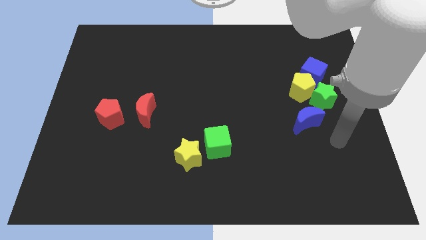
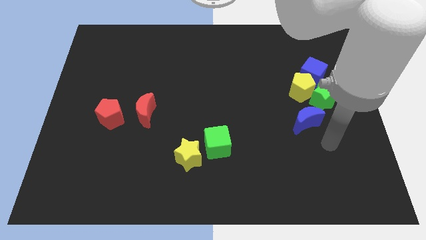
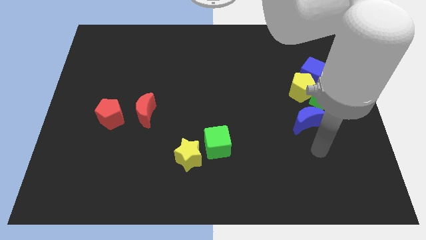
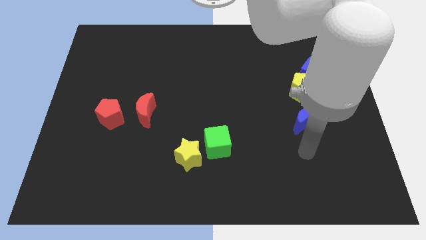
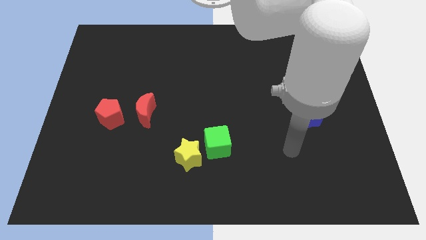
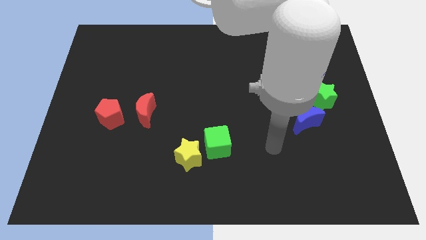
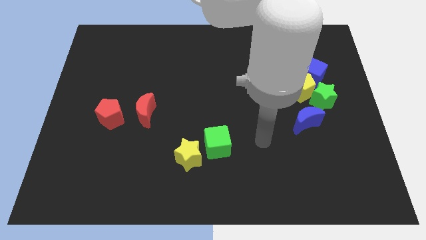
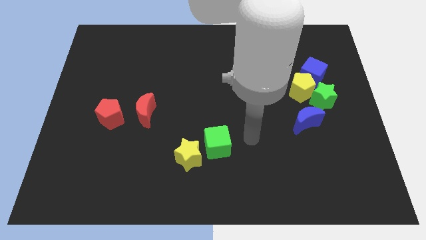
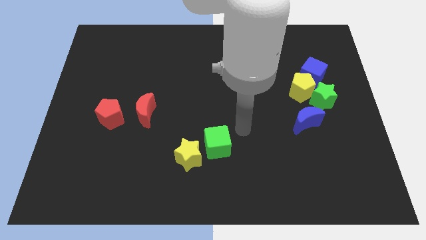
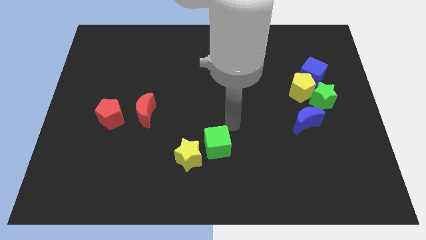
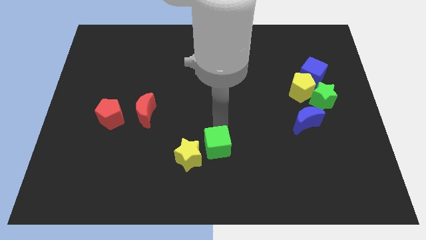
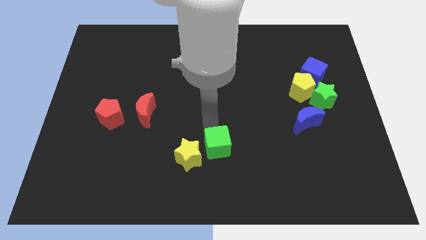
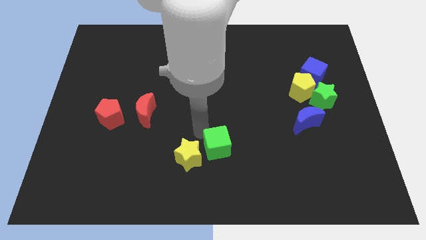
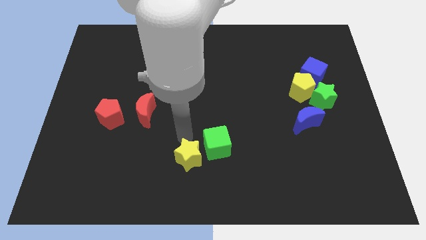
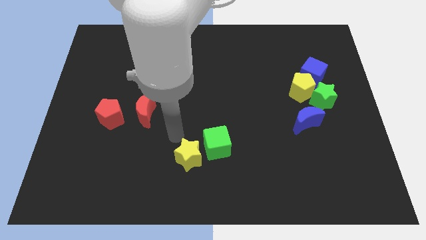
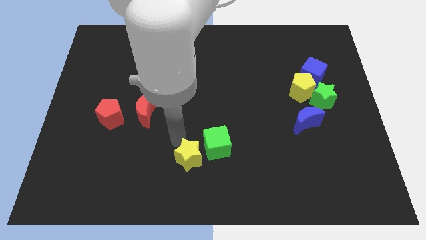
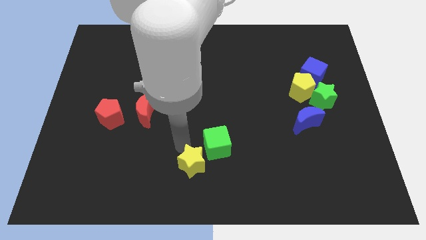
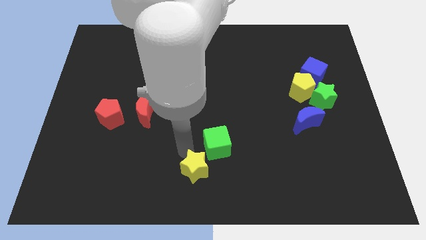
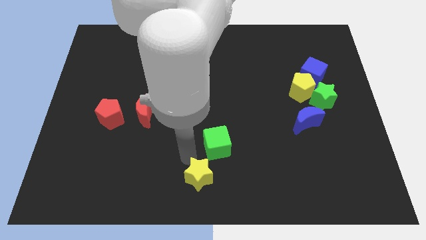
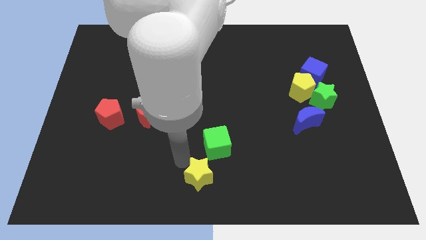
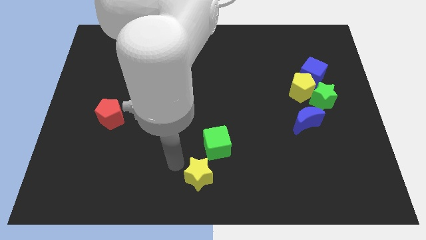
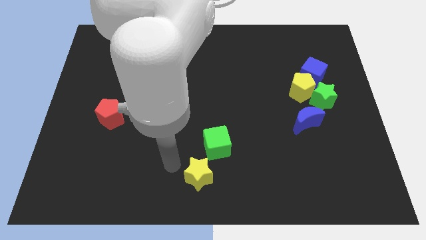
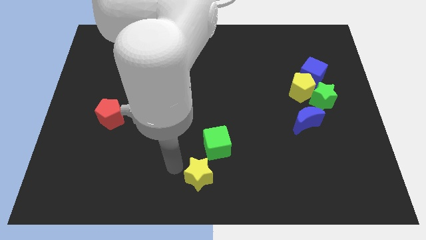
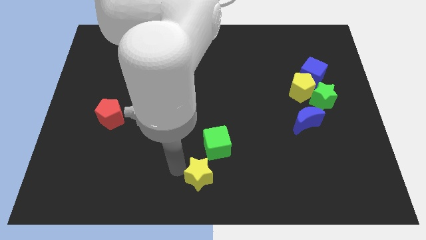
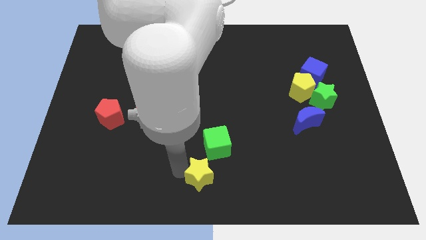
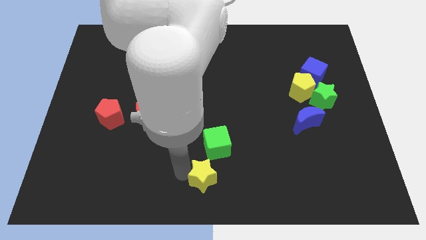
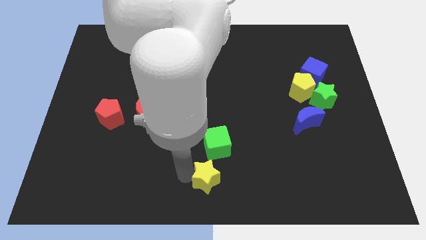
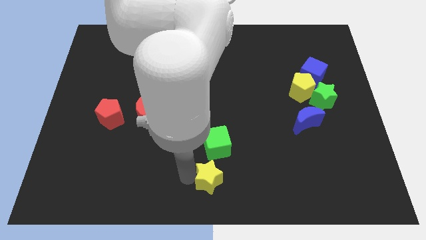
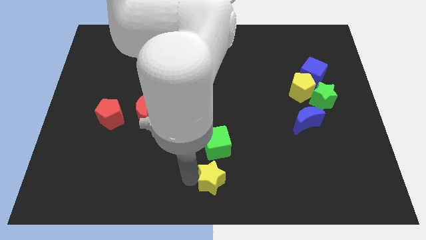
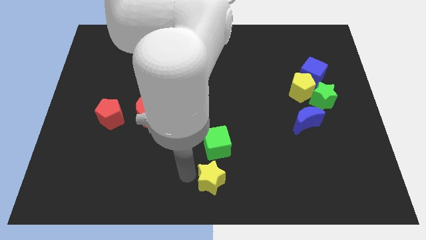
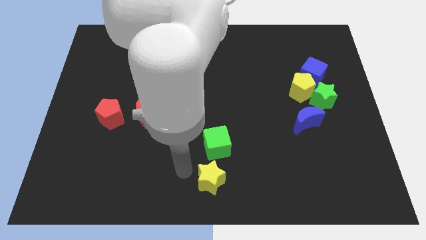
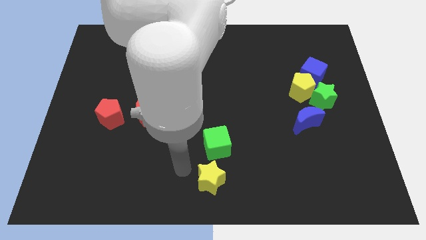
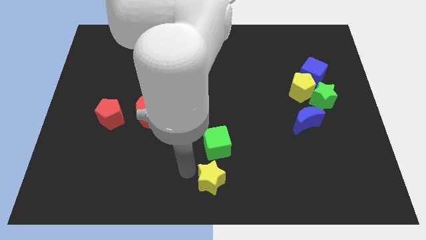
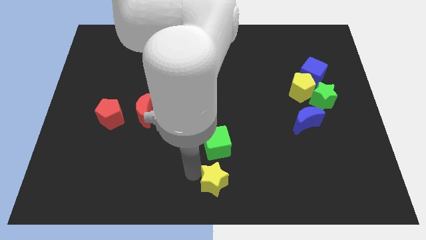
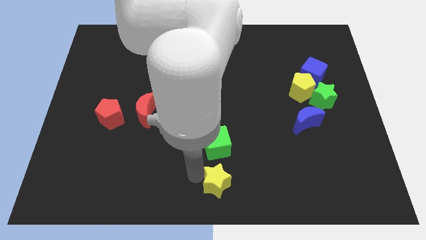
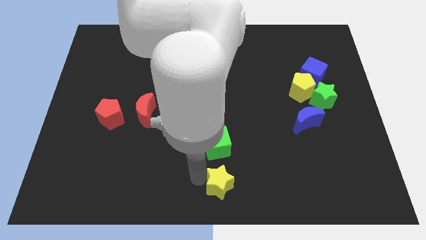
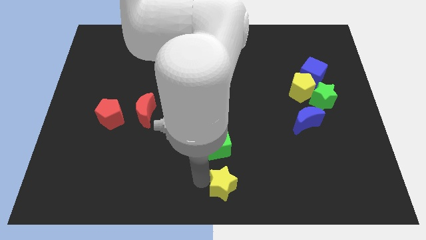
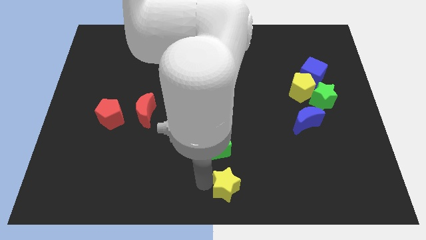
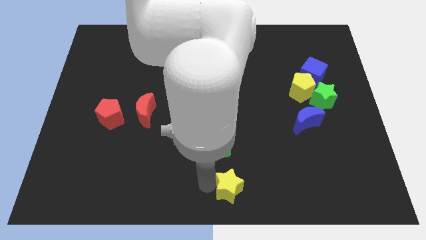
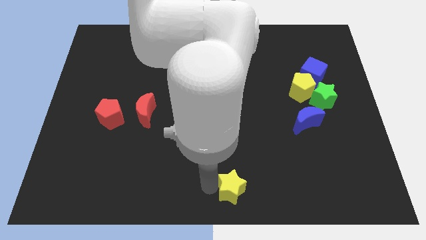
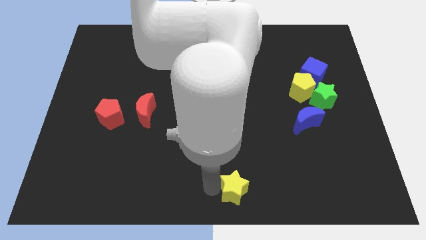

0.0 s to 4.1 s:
slightly push the yellow star right

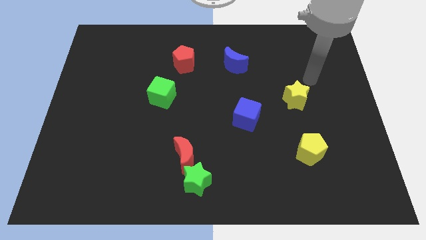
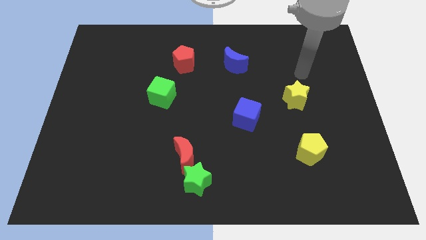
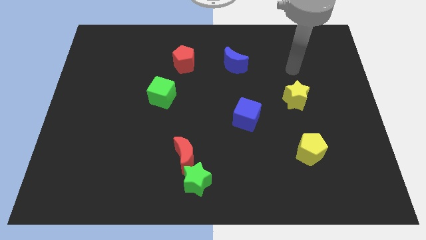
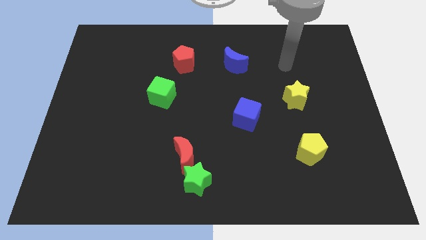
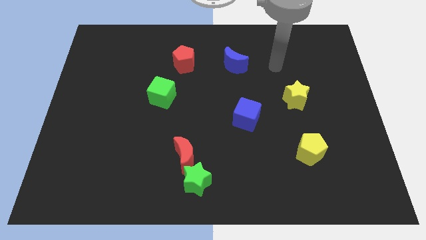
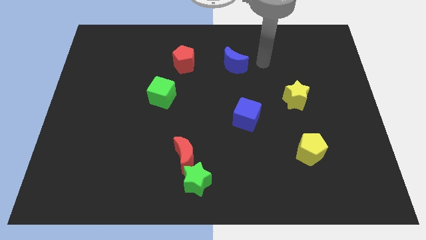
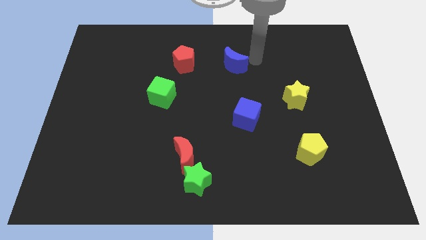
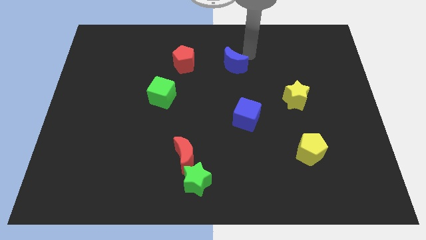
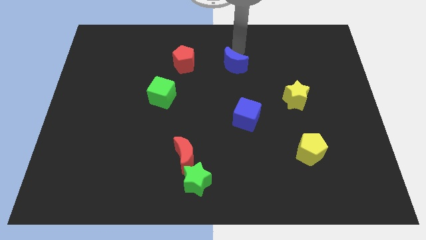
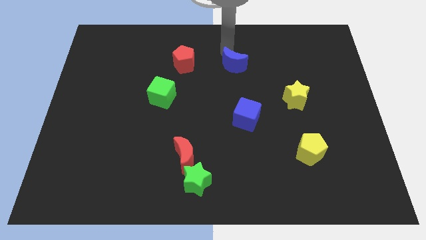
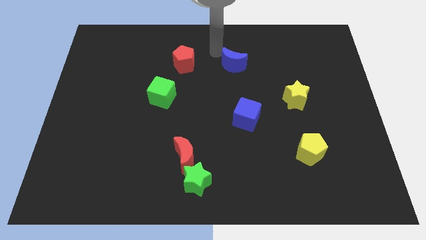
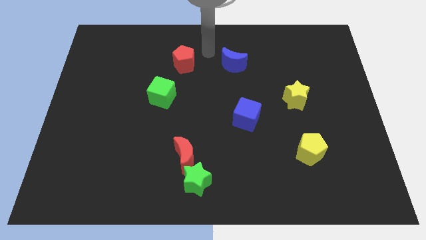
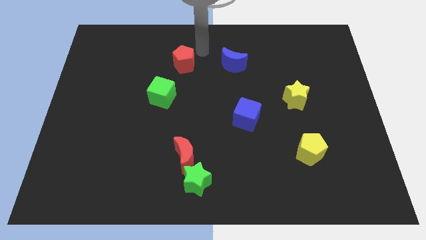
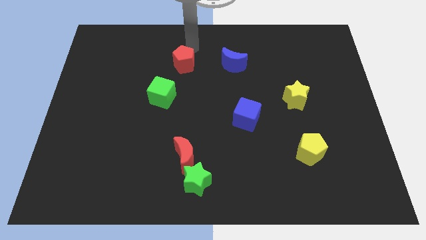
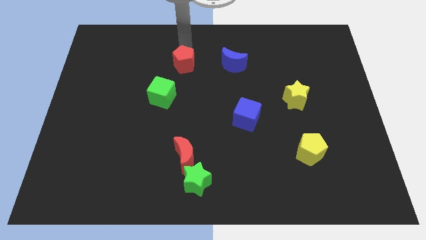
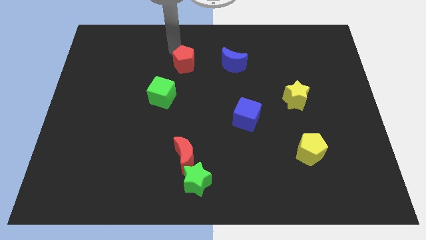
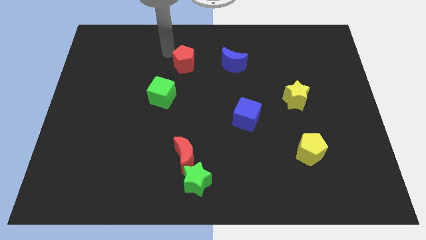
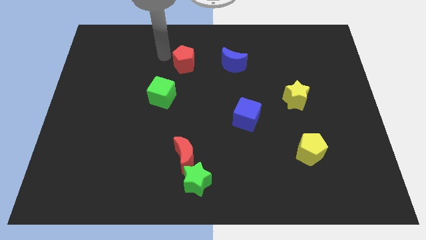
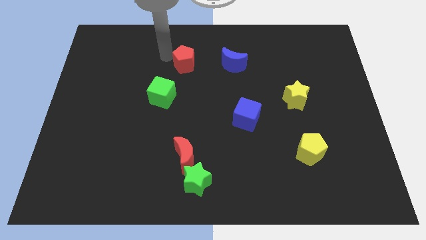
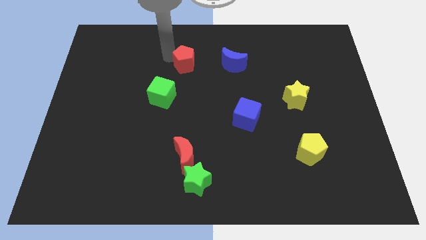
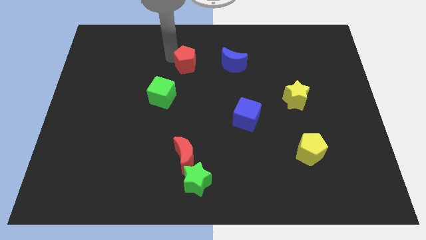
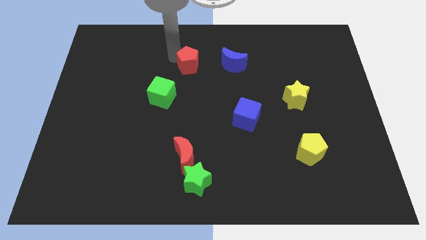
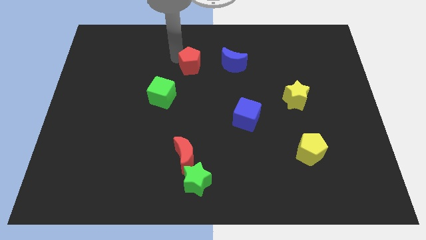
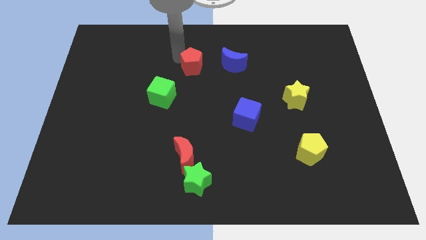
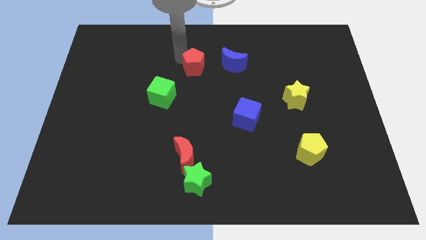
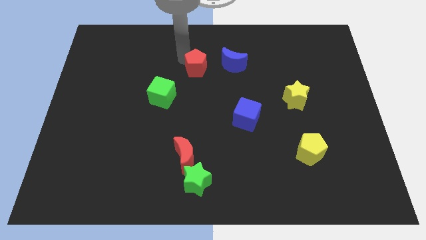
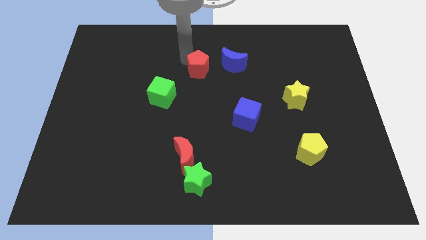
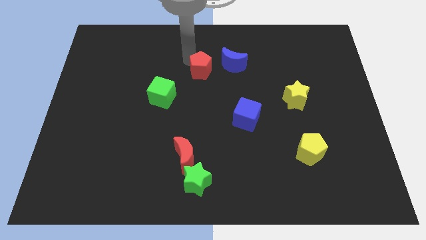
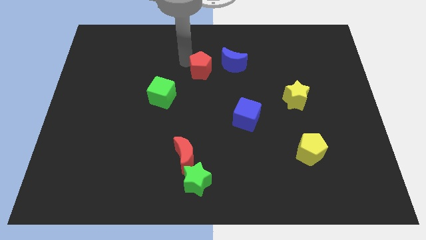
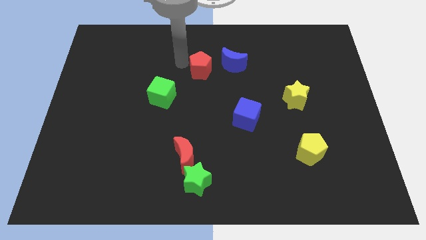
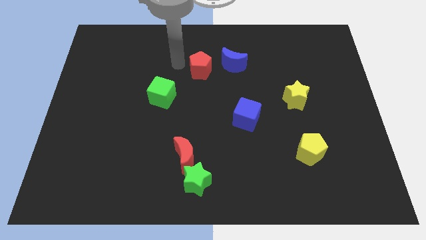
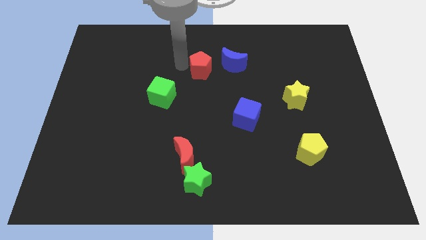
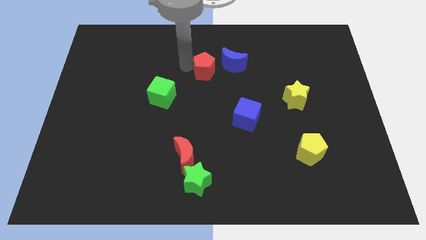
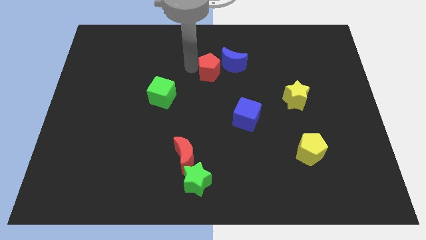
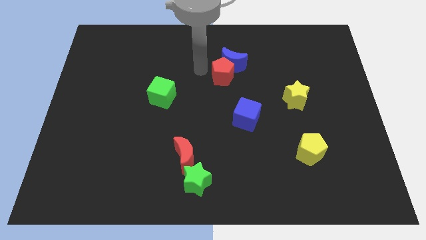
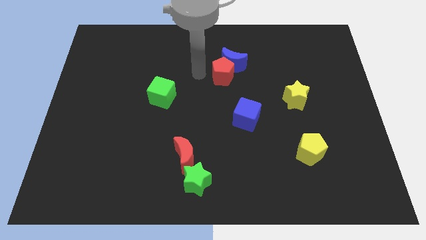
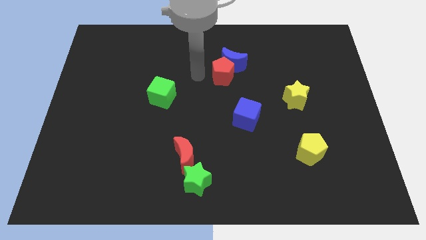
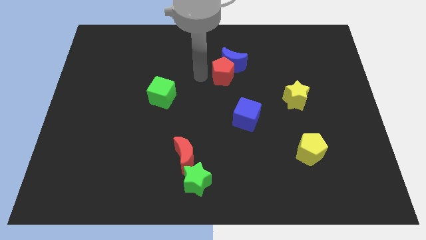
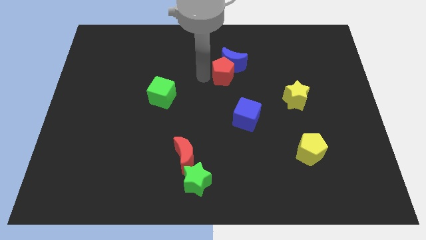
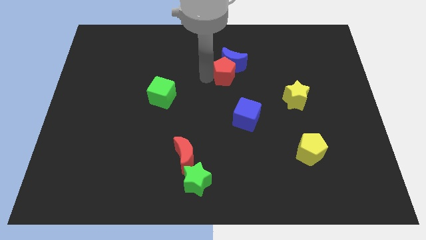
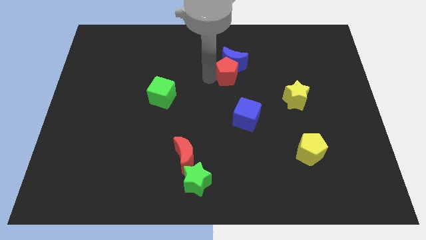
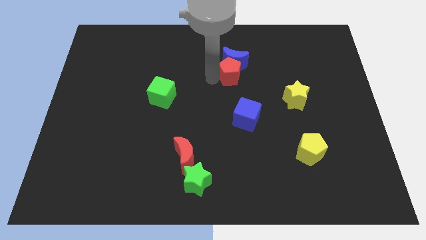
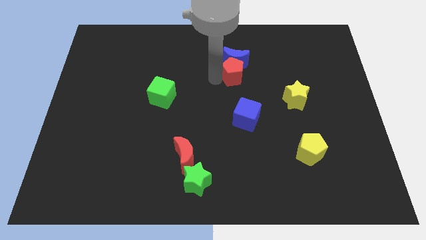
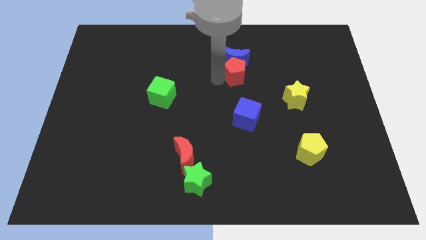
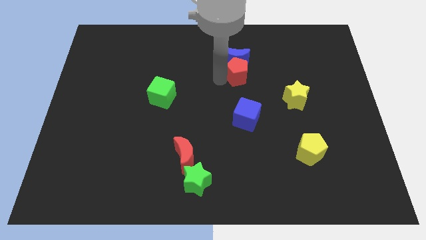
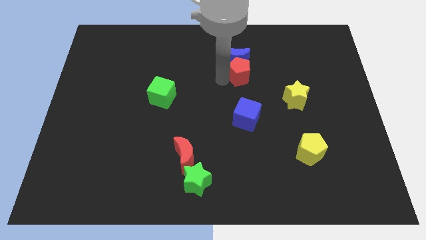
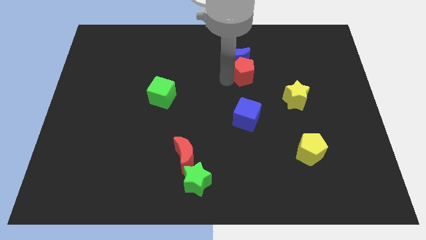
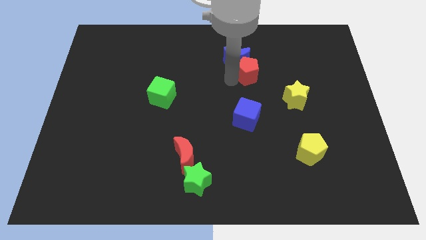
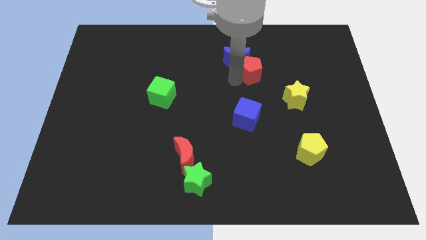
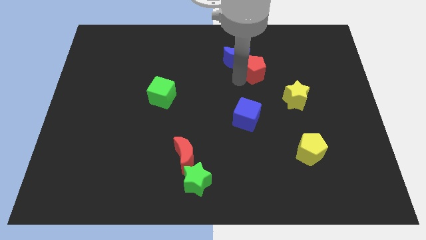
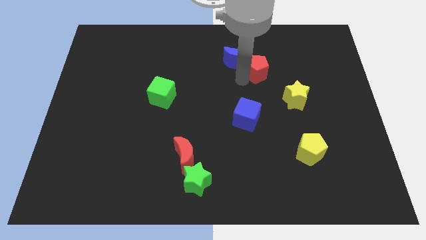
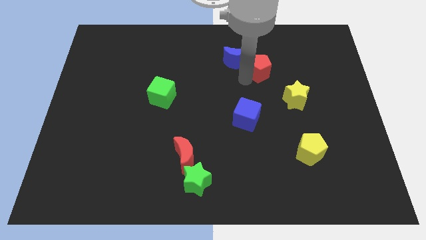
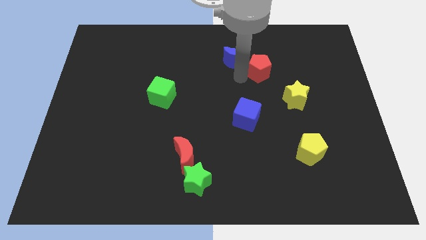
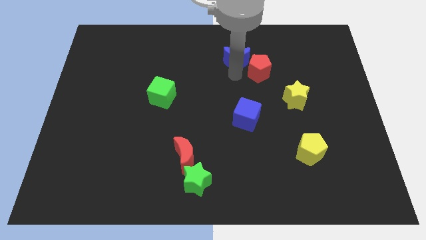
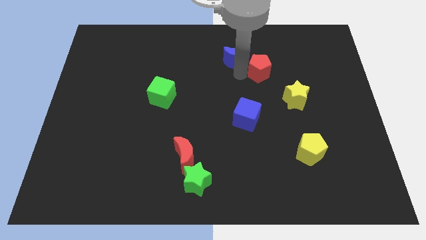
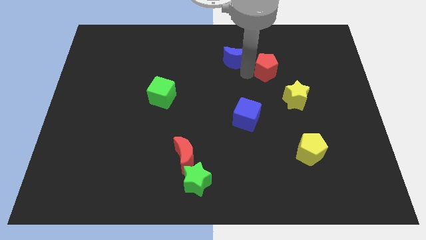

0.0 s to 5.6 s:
push the red pentagon right
